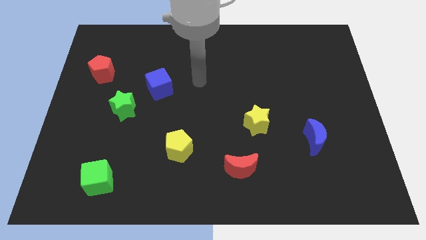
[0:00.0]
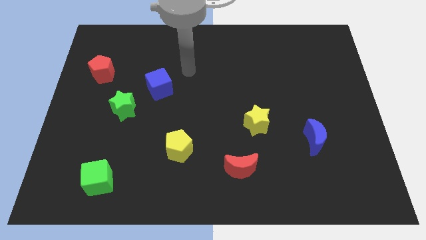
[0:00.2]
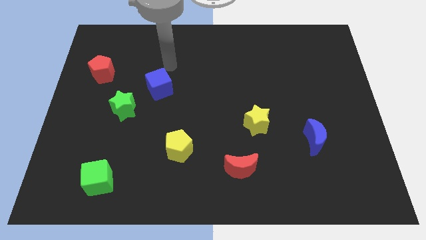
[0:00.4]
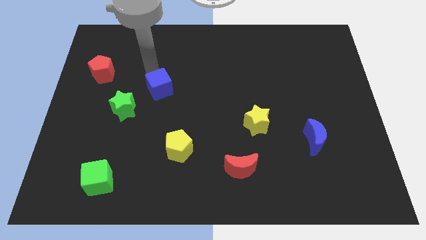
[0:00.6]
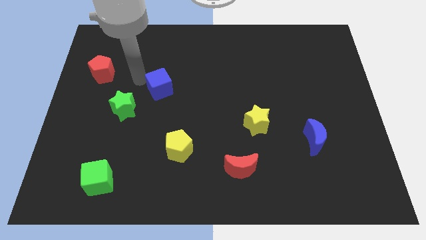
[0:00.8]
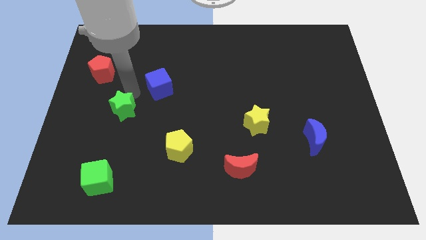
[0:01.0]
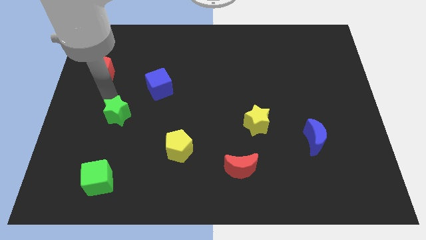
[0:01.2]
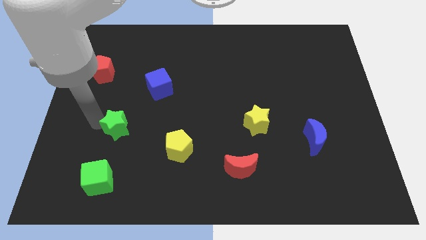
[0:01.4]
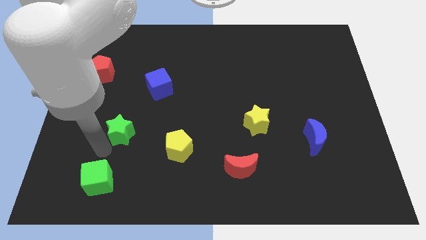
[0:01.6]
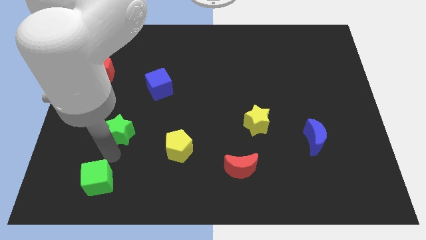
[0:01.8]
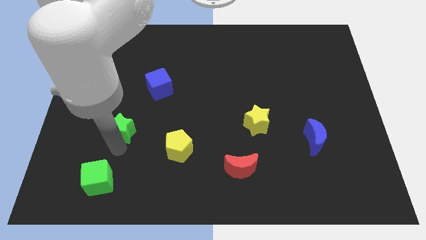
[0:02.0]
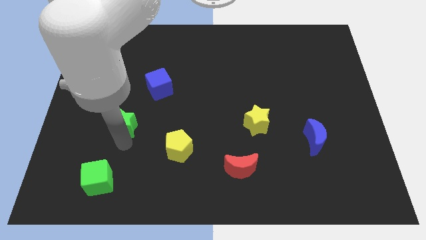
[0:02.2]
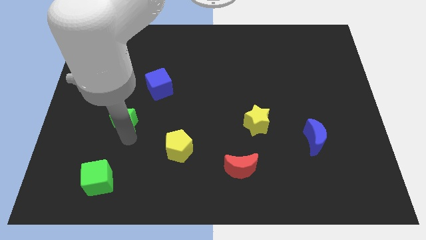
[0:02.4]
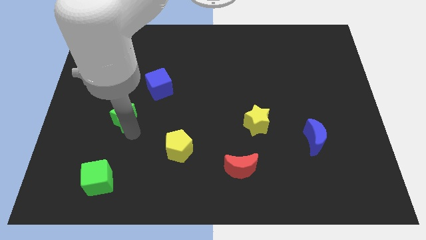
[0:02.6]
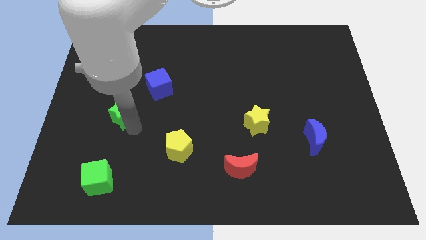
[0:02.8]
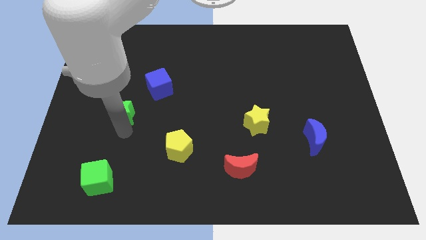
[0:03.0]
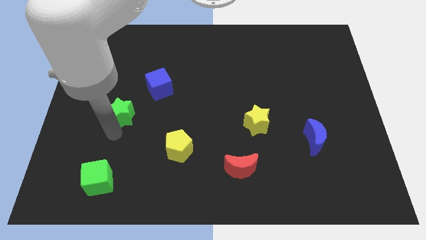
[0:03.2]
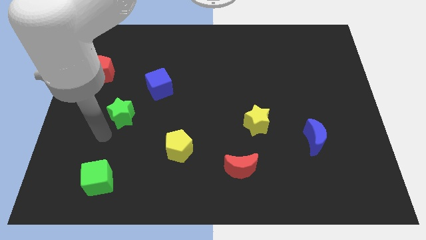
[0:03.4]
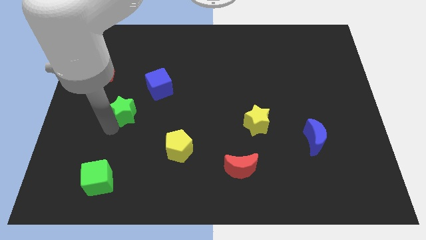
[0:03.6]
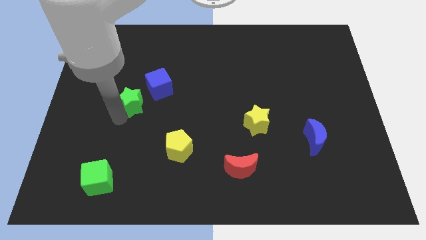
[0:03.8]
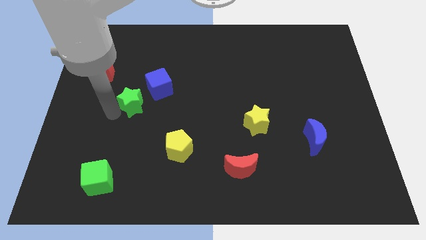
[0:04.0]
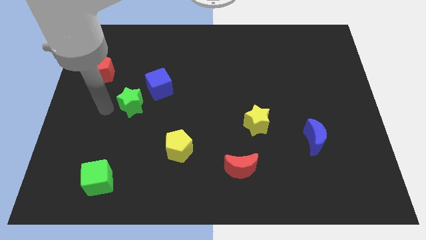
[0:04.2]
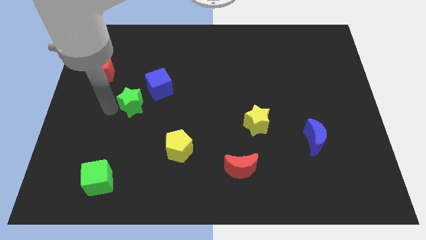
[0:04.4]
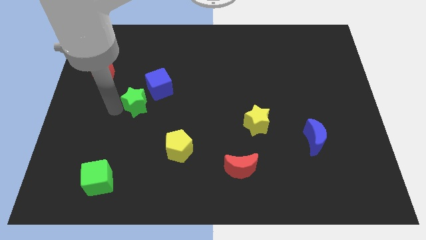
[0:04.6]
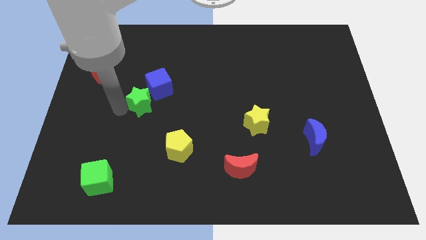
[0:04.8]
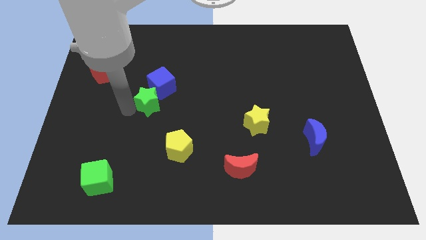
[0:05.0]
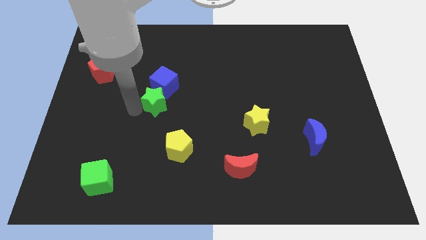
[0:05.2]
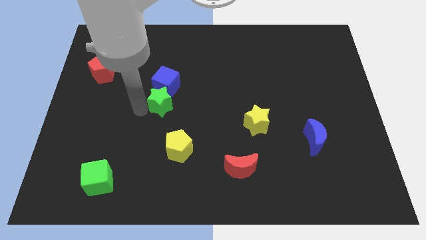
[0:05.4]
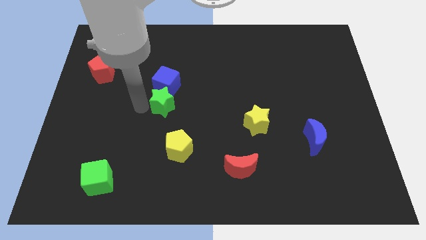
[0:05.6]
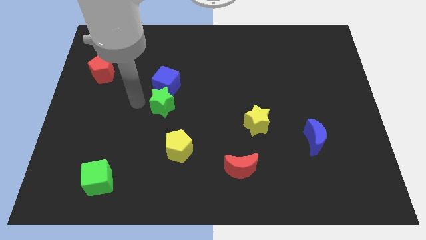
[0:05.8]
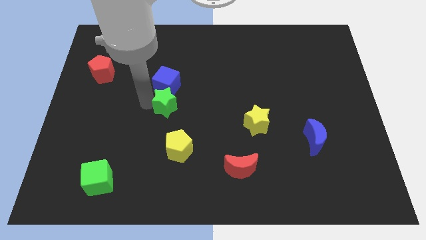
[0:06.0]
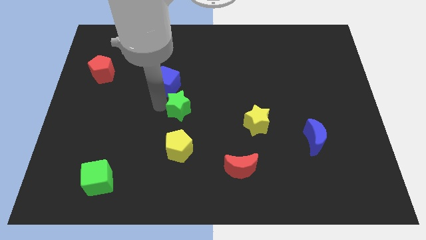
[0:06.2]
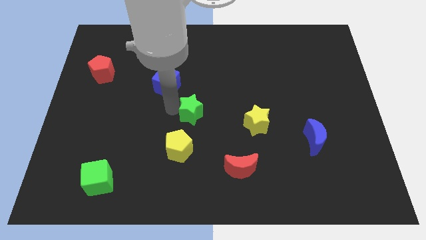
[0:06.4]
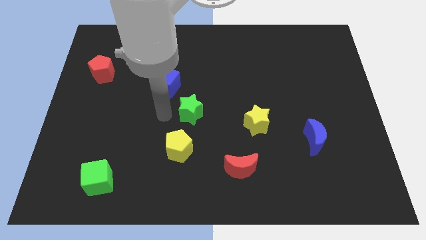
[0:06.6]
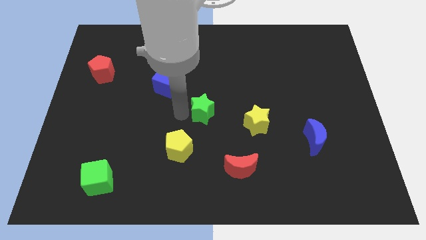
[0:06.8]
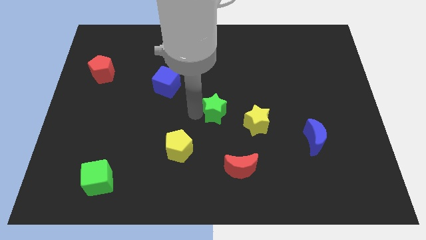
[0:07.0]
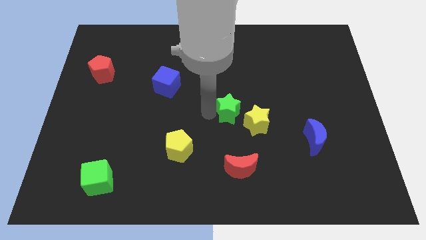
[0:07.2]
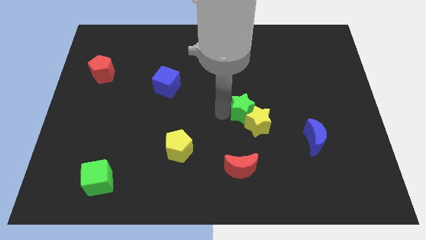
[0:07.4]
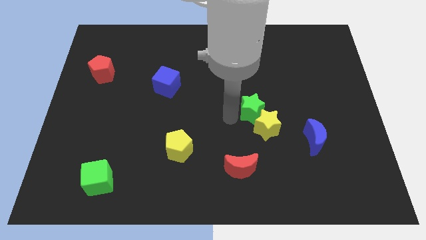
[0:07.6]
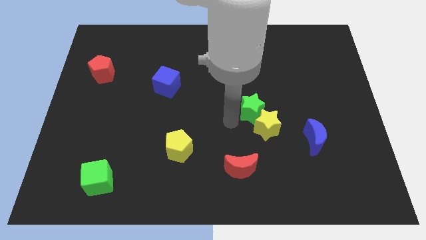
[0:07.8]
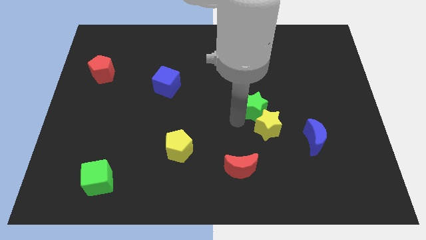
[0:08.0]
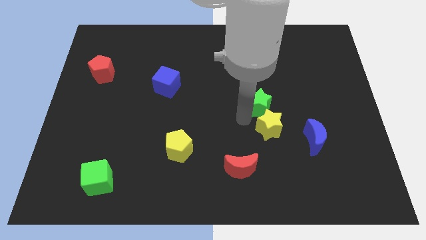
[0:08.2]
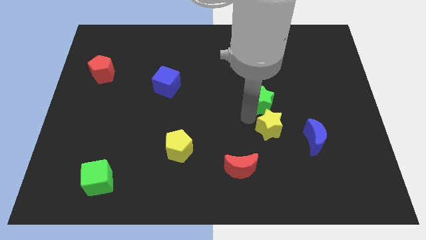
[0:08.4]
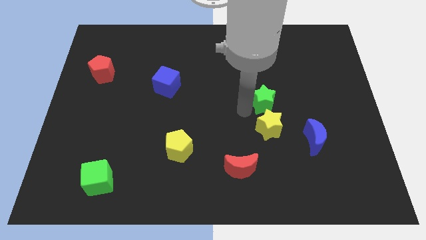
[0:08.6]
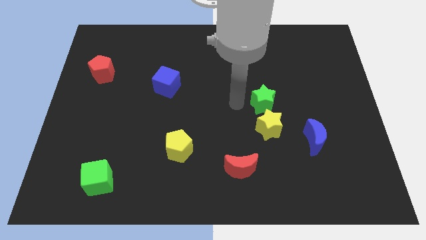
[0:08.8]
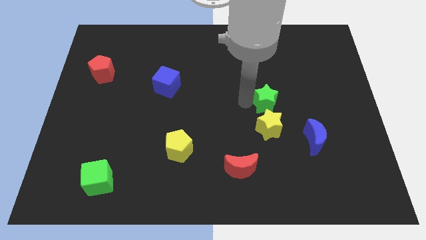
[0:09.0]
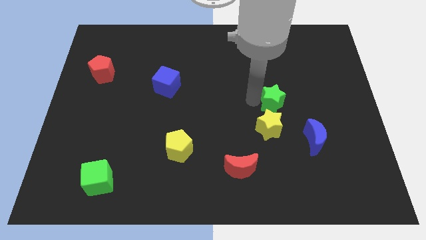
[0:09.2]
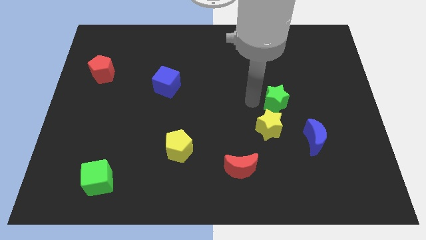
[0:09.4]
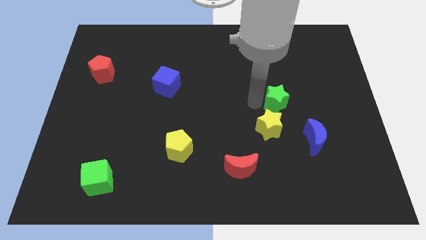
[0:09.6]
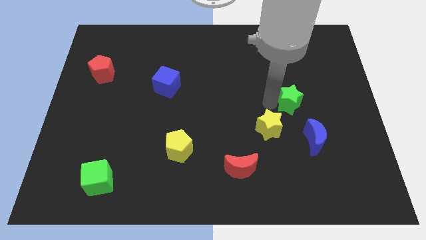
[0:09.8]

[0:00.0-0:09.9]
push the green star above the blue moon

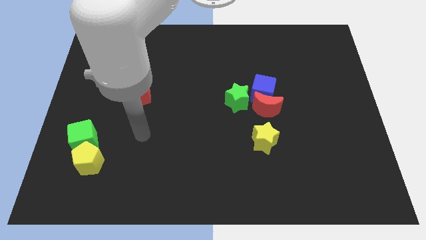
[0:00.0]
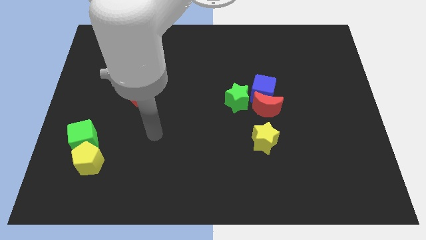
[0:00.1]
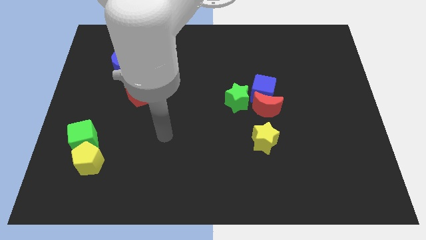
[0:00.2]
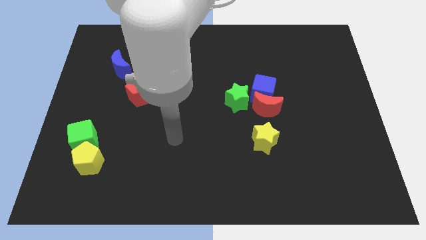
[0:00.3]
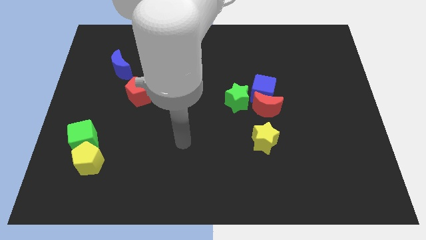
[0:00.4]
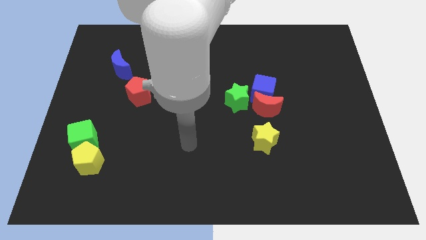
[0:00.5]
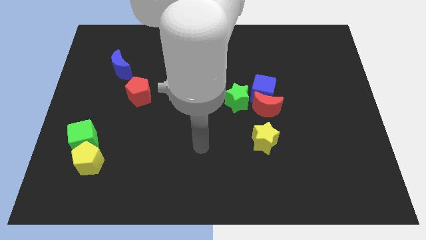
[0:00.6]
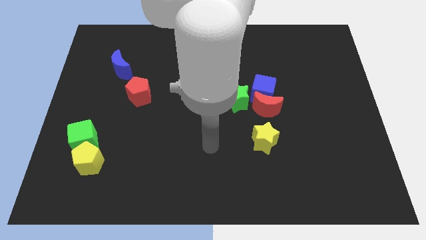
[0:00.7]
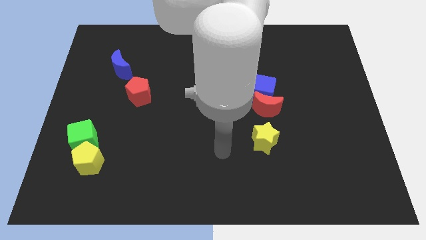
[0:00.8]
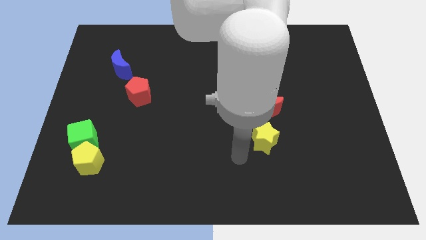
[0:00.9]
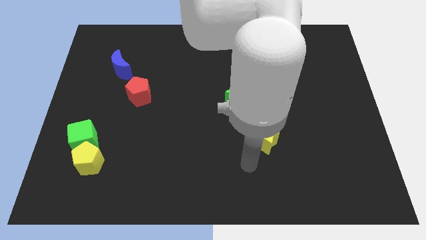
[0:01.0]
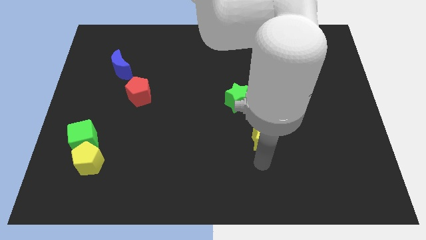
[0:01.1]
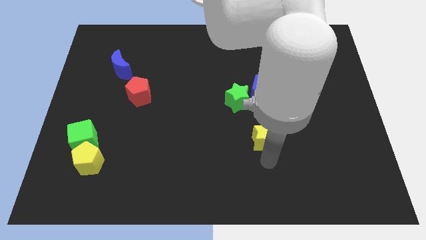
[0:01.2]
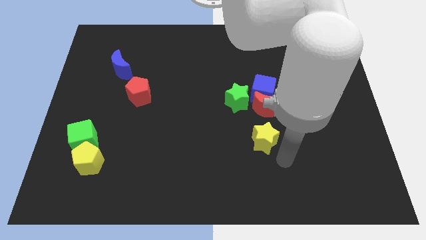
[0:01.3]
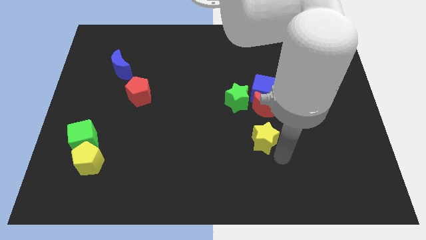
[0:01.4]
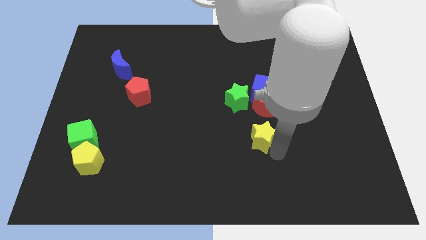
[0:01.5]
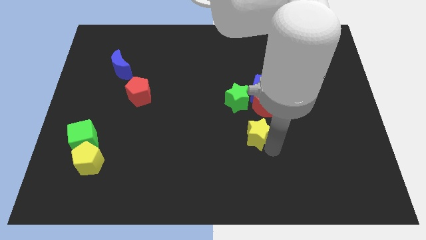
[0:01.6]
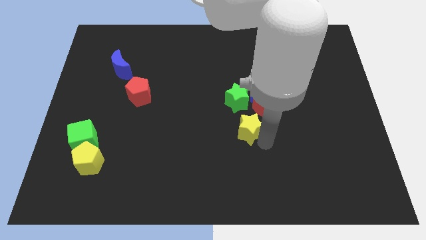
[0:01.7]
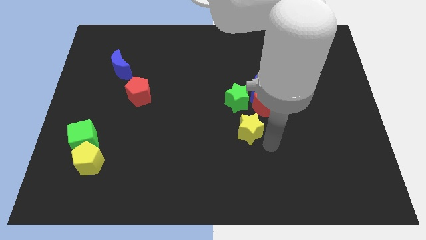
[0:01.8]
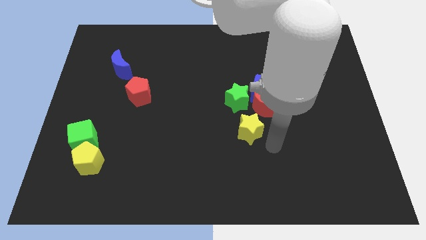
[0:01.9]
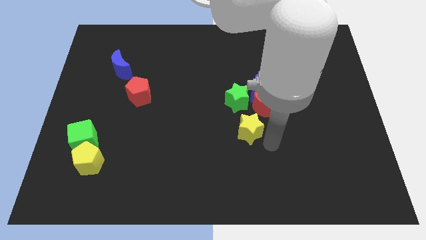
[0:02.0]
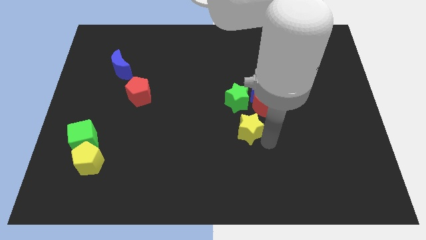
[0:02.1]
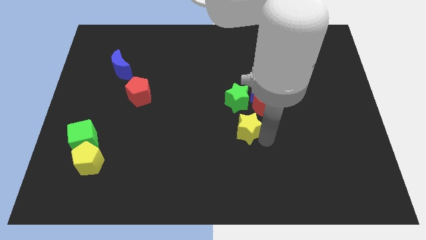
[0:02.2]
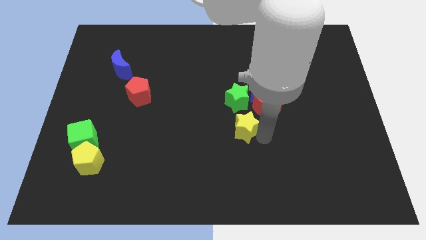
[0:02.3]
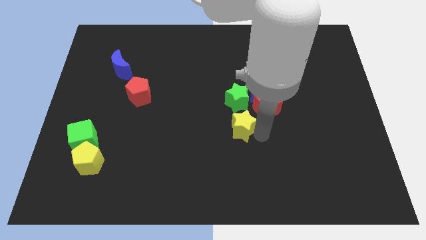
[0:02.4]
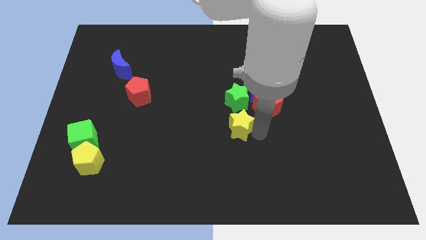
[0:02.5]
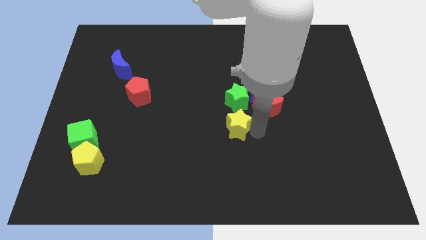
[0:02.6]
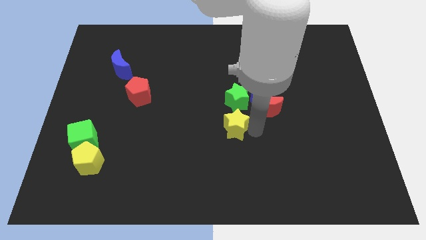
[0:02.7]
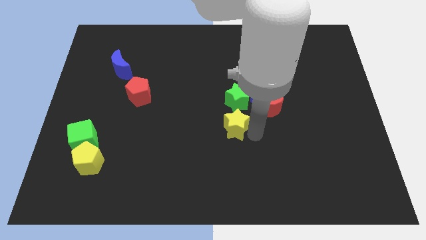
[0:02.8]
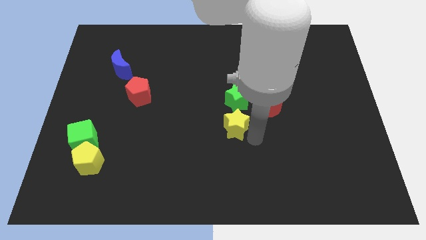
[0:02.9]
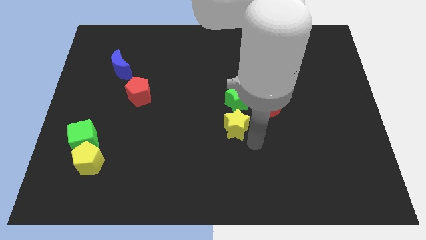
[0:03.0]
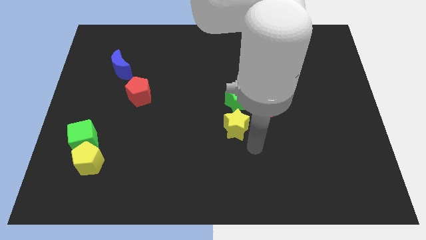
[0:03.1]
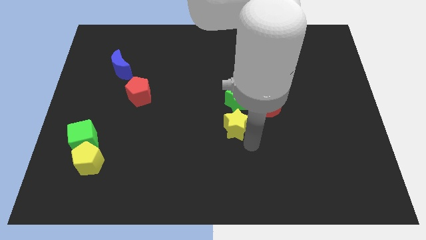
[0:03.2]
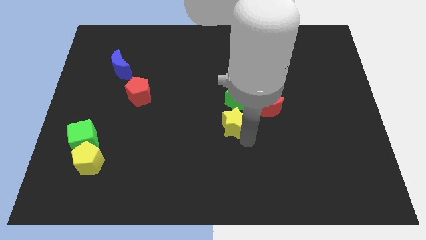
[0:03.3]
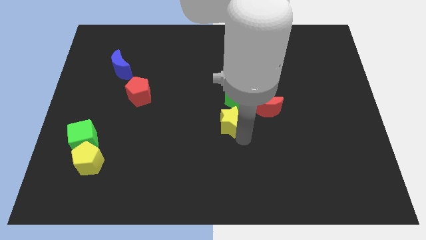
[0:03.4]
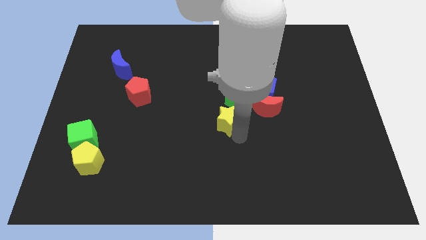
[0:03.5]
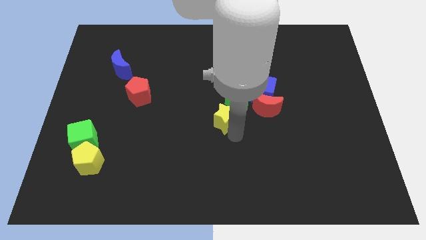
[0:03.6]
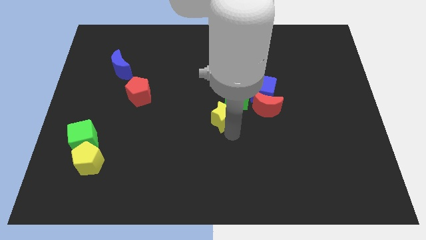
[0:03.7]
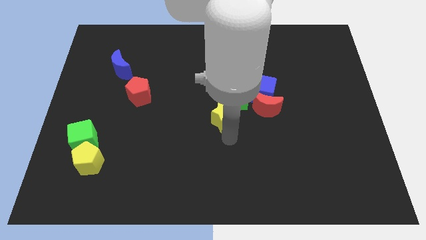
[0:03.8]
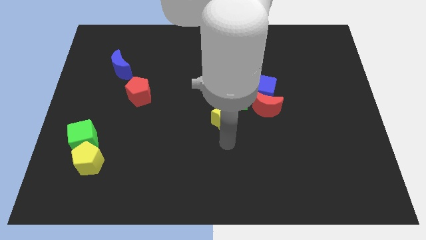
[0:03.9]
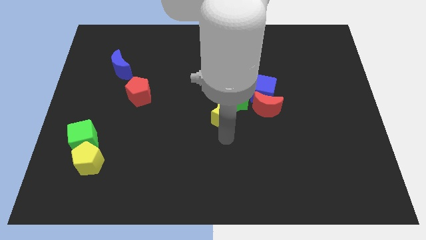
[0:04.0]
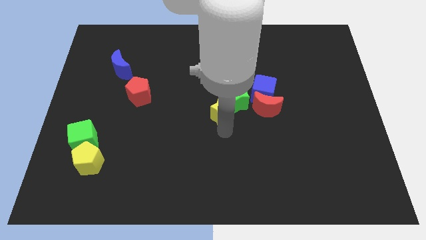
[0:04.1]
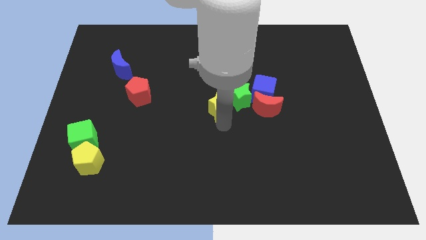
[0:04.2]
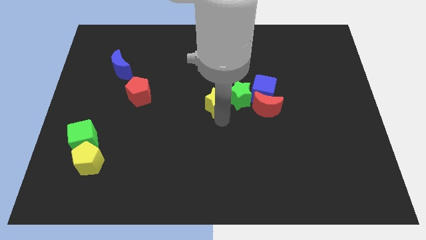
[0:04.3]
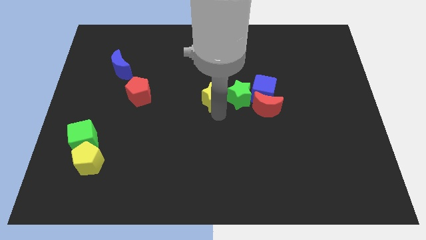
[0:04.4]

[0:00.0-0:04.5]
push the yellow star diagonally up and to the left of the green star
